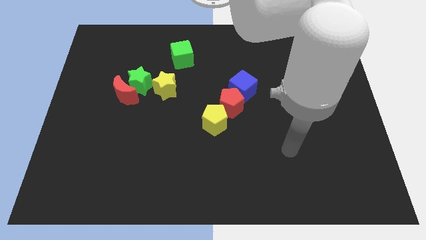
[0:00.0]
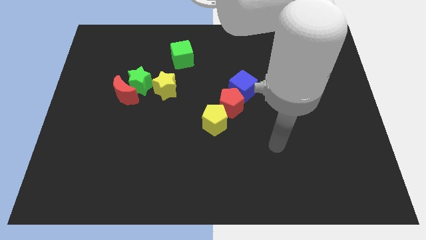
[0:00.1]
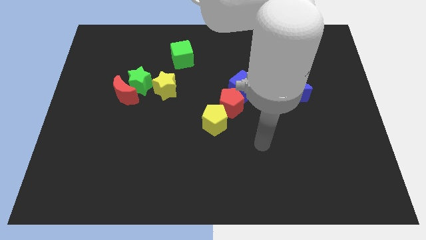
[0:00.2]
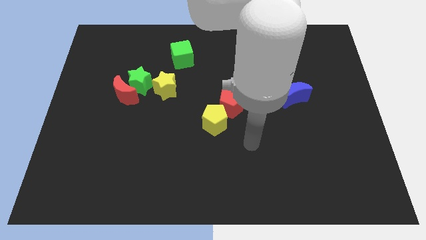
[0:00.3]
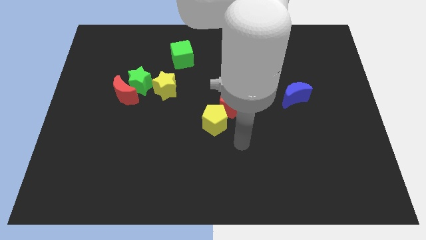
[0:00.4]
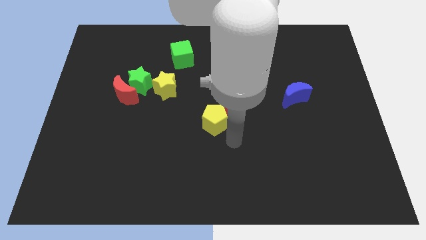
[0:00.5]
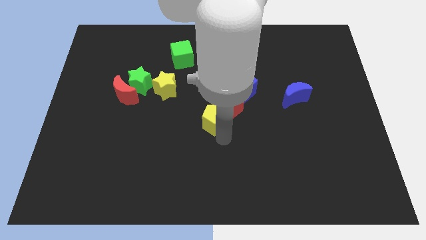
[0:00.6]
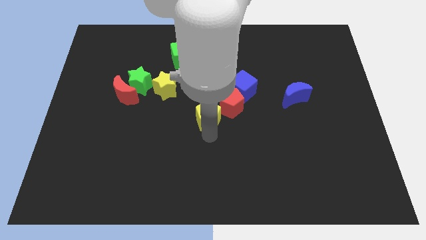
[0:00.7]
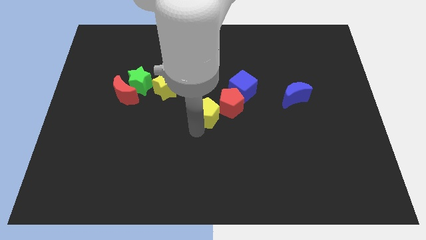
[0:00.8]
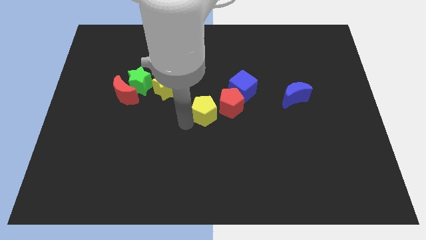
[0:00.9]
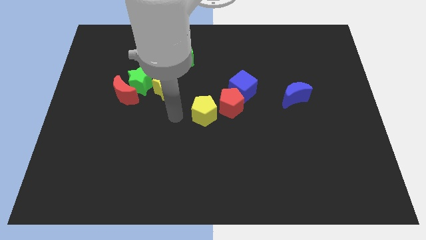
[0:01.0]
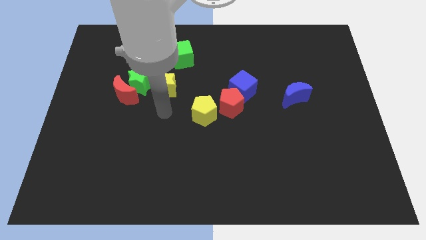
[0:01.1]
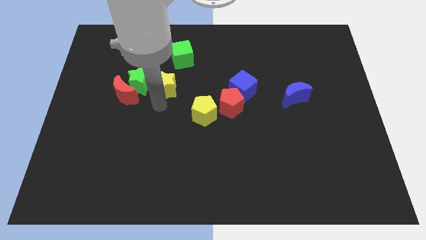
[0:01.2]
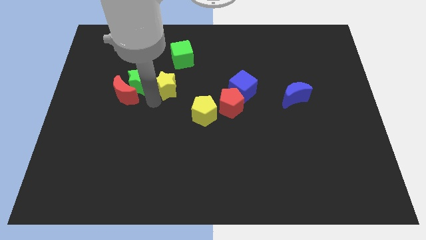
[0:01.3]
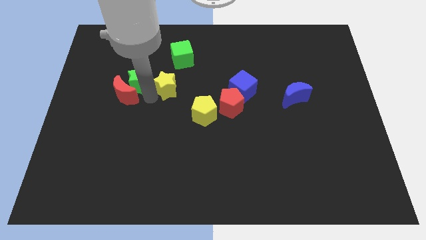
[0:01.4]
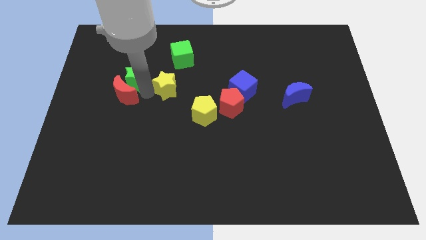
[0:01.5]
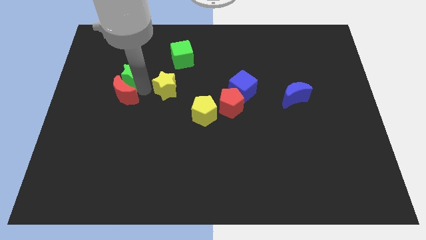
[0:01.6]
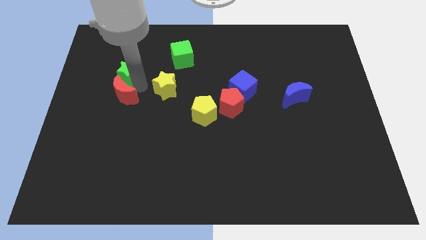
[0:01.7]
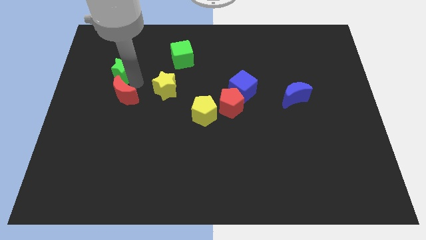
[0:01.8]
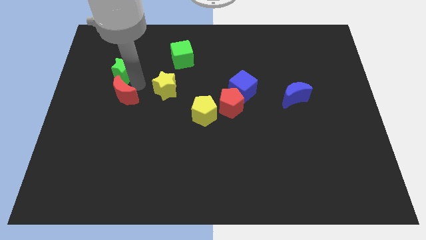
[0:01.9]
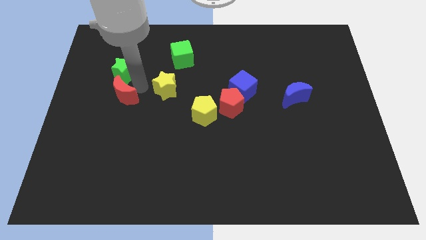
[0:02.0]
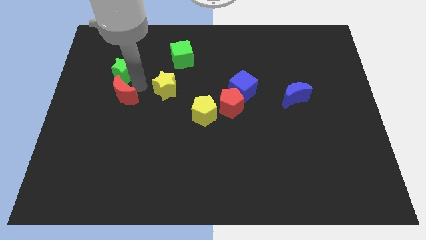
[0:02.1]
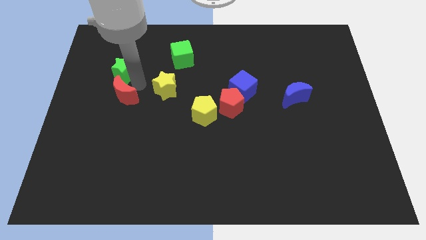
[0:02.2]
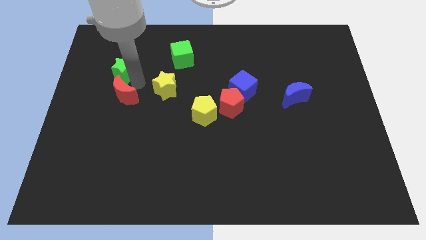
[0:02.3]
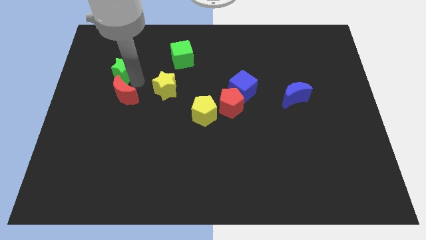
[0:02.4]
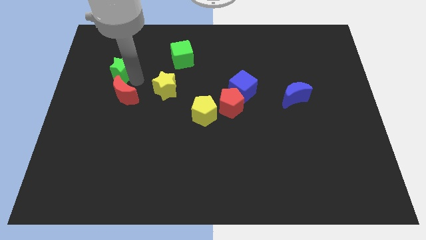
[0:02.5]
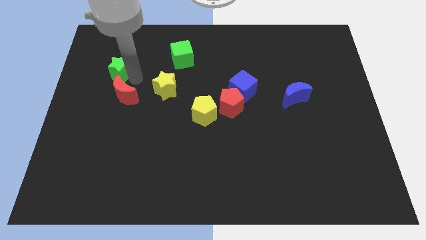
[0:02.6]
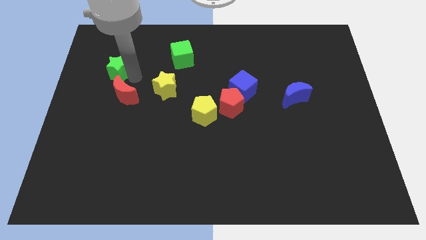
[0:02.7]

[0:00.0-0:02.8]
pull the green star apart from the red moon and yellow star

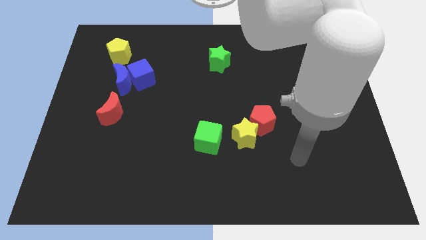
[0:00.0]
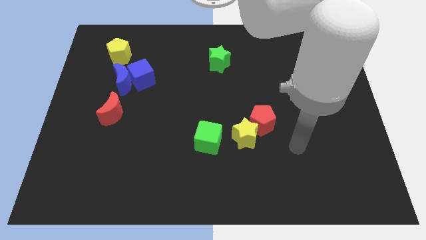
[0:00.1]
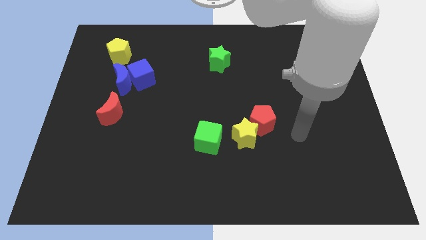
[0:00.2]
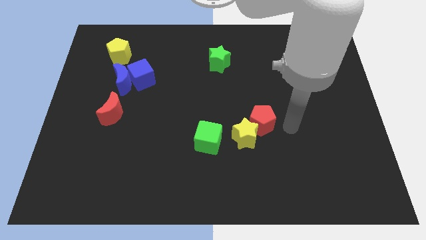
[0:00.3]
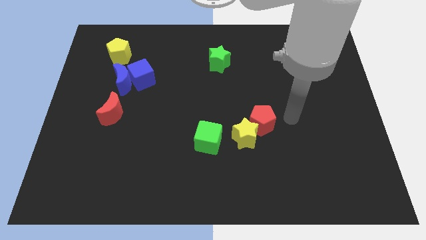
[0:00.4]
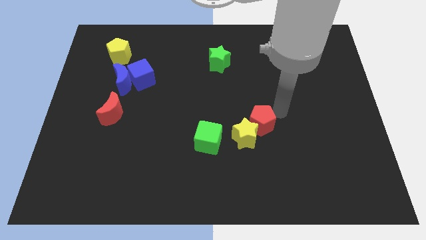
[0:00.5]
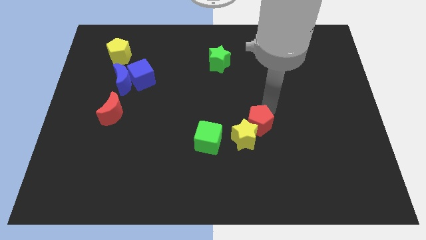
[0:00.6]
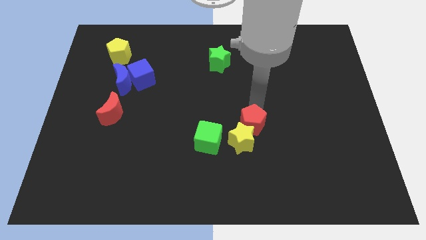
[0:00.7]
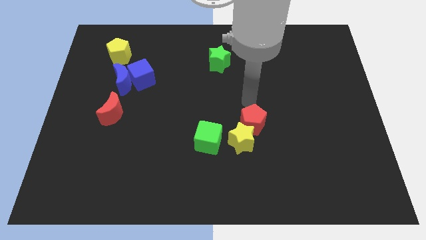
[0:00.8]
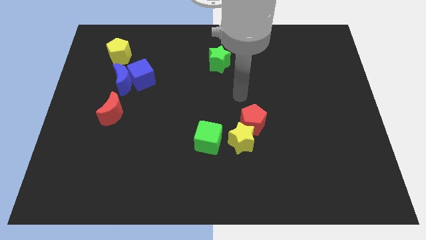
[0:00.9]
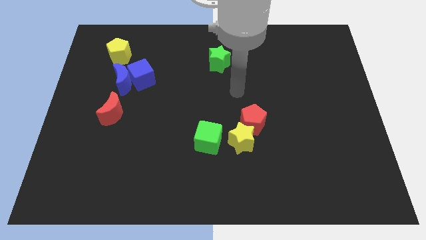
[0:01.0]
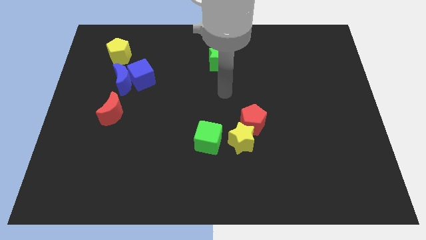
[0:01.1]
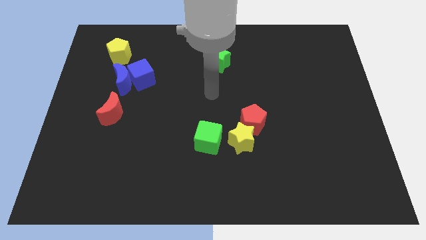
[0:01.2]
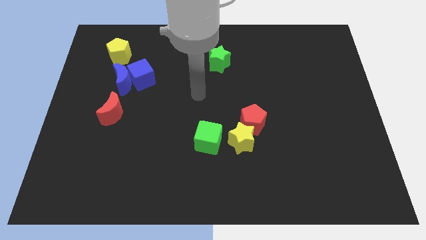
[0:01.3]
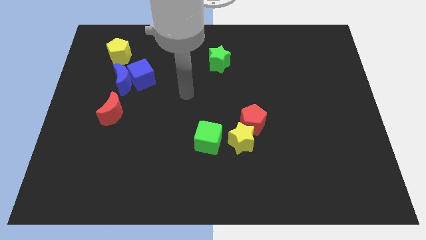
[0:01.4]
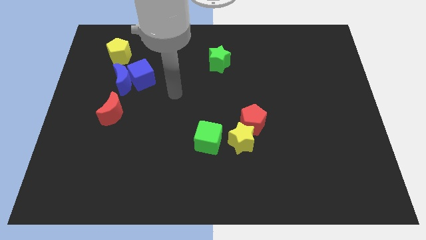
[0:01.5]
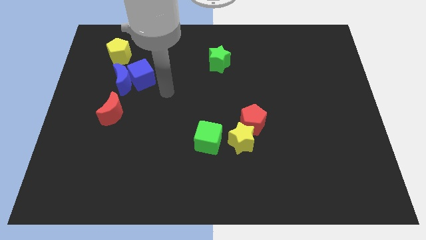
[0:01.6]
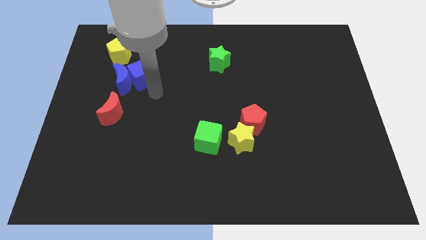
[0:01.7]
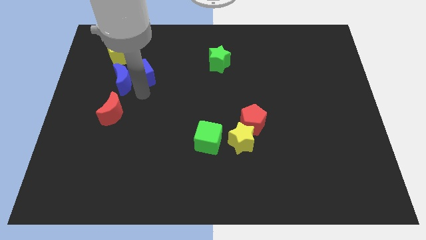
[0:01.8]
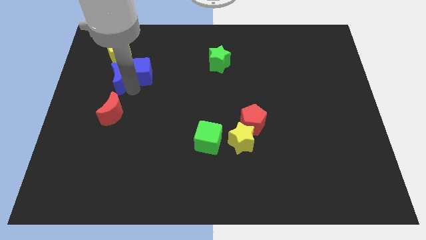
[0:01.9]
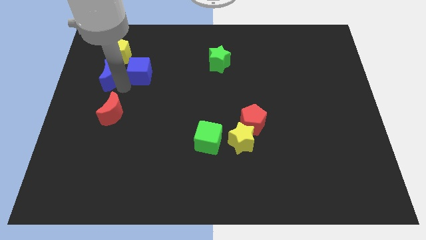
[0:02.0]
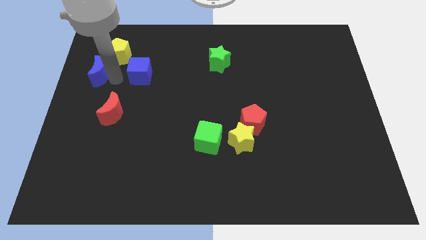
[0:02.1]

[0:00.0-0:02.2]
separate the blue cube from the blue moon

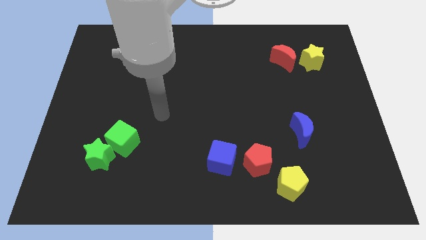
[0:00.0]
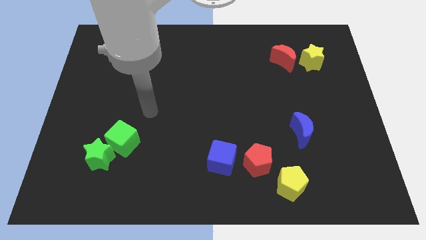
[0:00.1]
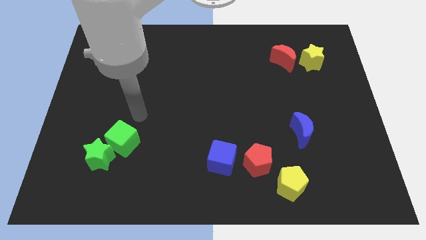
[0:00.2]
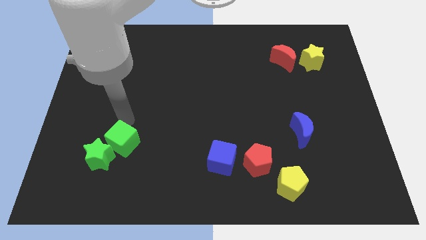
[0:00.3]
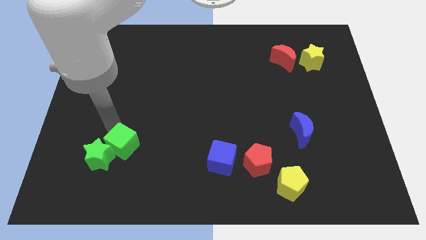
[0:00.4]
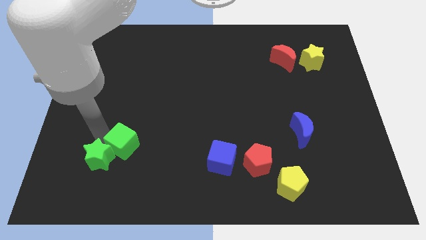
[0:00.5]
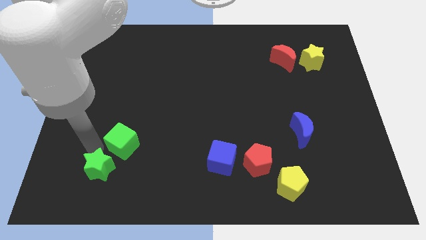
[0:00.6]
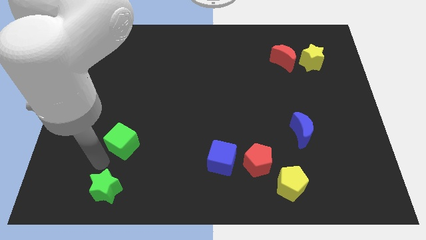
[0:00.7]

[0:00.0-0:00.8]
separate the green cube from the green star

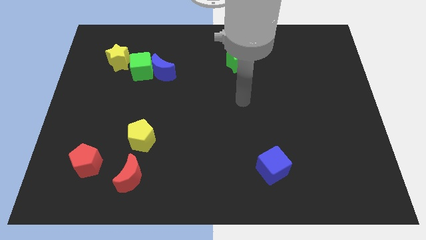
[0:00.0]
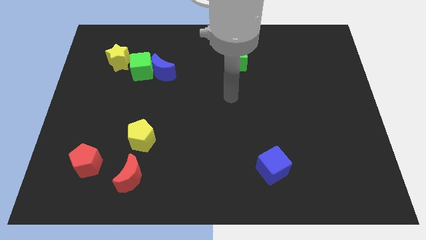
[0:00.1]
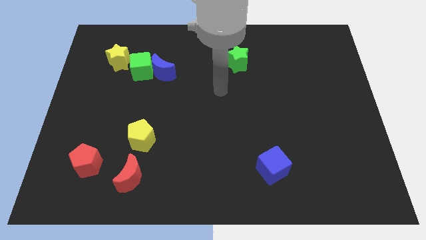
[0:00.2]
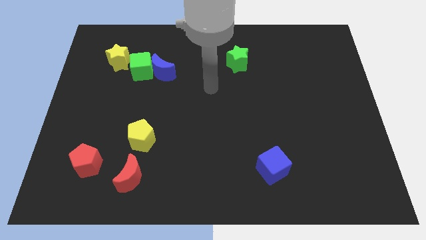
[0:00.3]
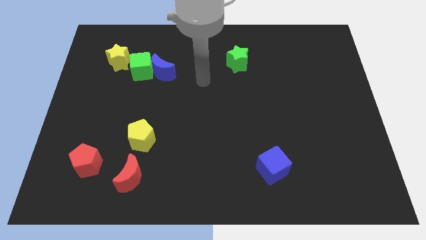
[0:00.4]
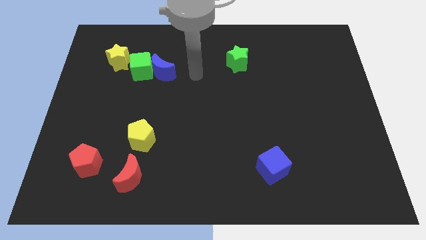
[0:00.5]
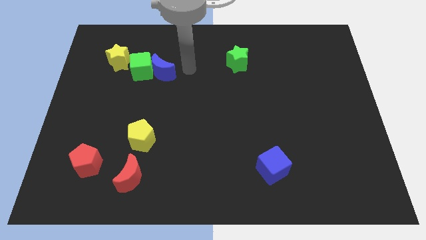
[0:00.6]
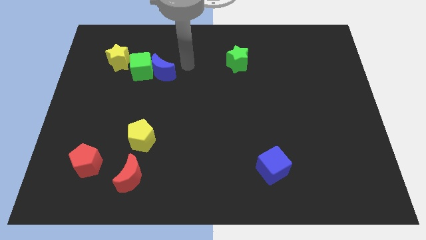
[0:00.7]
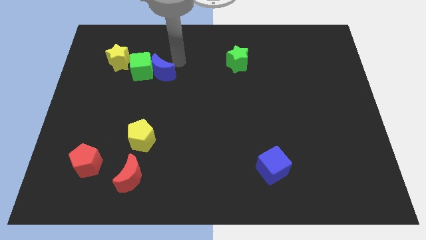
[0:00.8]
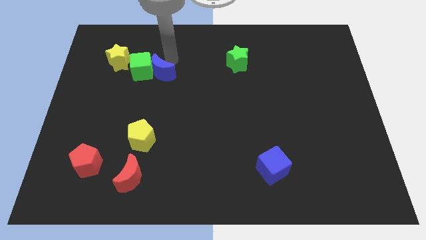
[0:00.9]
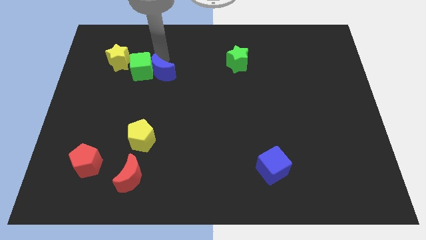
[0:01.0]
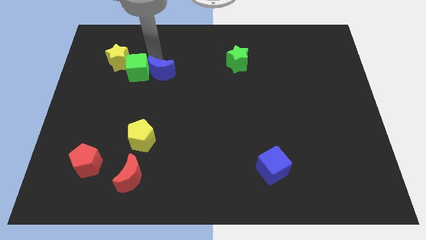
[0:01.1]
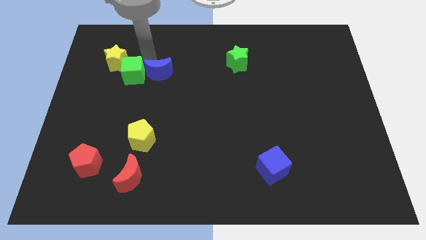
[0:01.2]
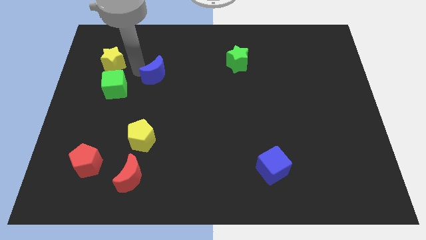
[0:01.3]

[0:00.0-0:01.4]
separate the blue moon from the green cube

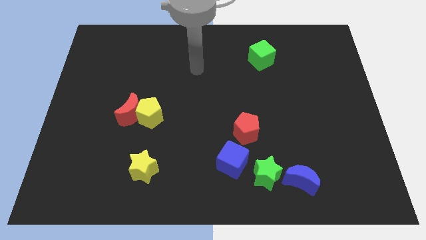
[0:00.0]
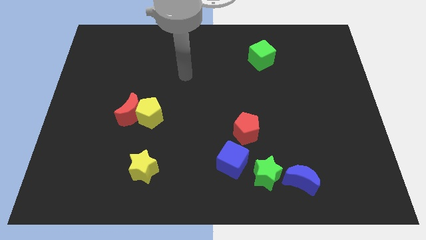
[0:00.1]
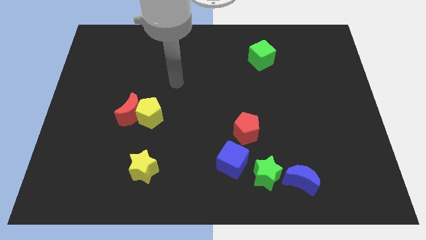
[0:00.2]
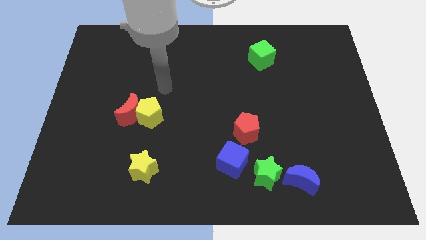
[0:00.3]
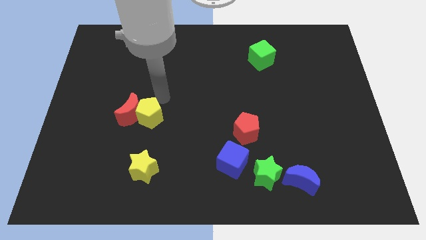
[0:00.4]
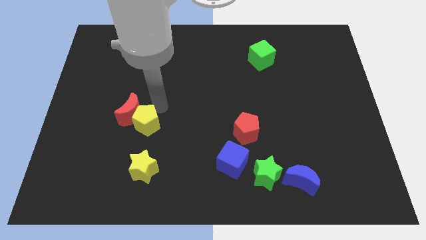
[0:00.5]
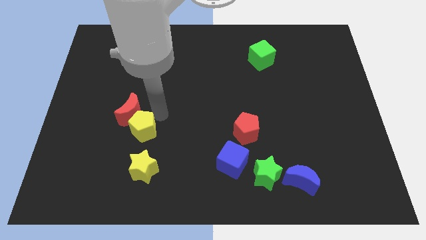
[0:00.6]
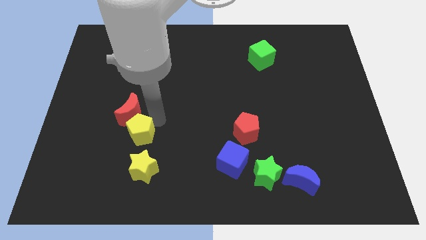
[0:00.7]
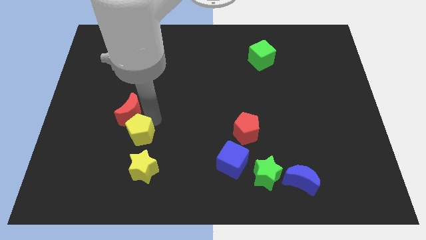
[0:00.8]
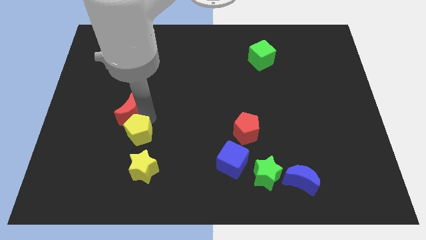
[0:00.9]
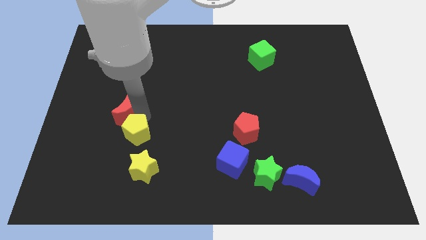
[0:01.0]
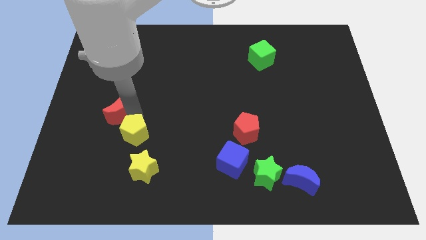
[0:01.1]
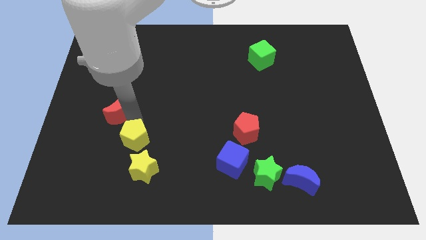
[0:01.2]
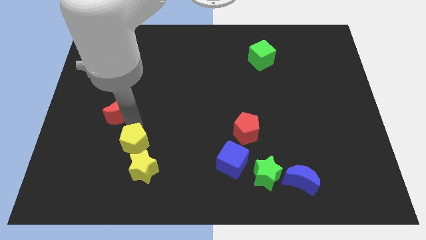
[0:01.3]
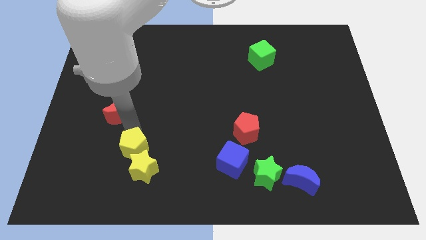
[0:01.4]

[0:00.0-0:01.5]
pull the red moon apart from the yellow pentagon

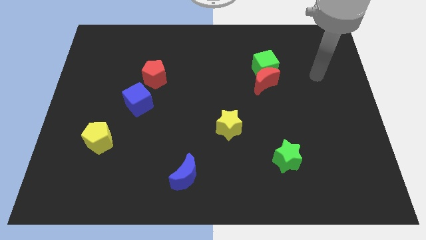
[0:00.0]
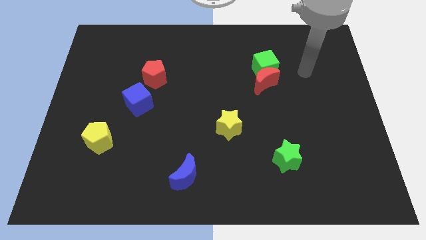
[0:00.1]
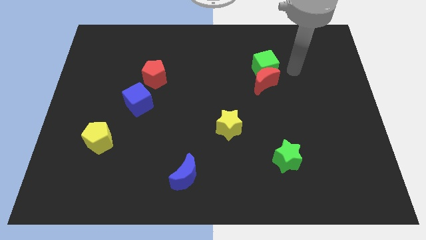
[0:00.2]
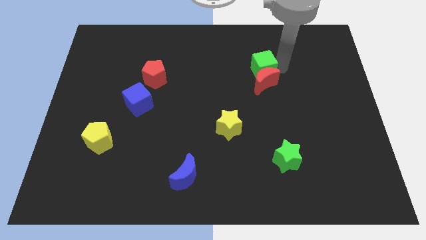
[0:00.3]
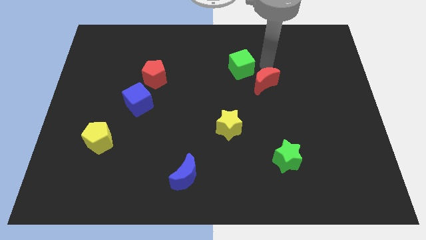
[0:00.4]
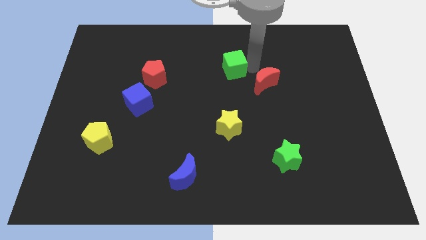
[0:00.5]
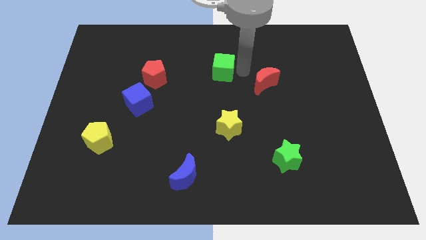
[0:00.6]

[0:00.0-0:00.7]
move the red moon away from the green cube
